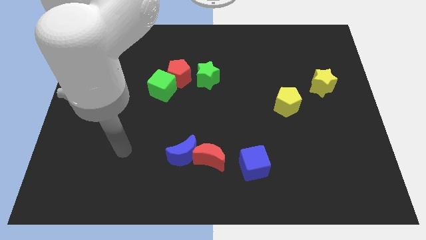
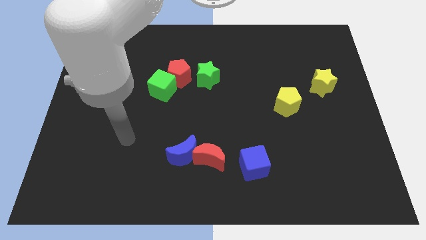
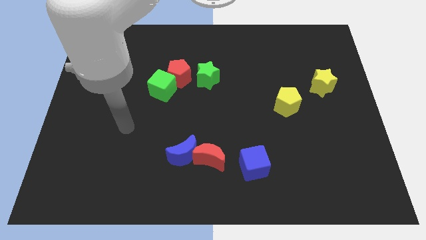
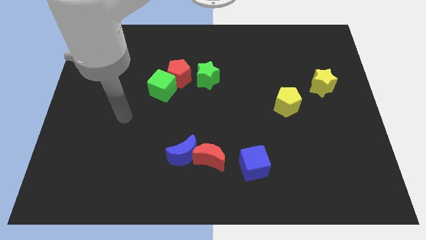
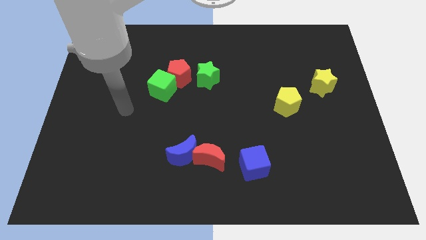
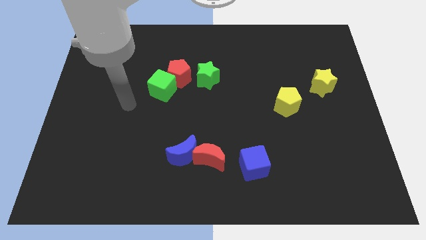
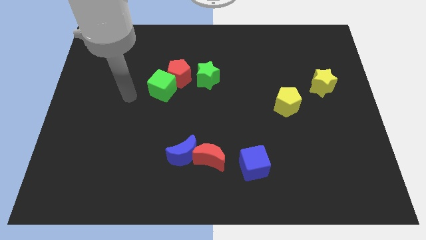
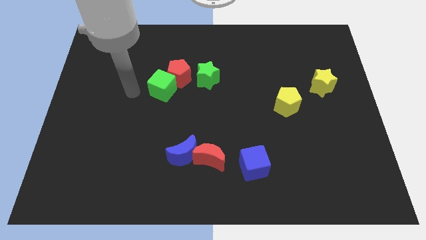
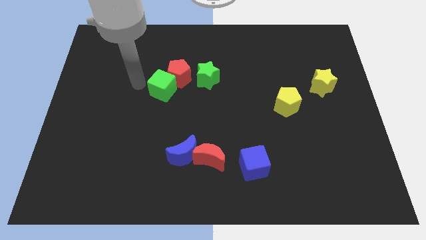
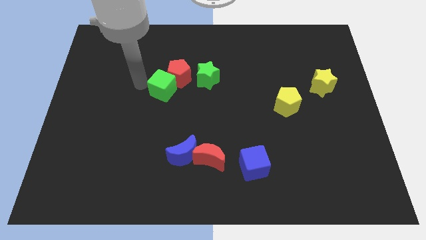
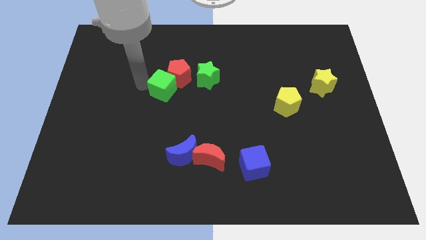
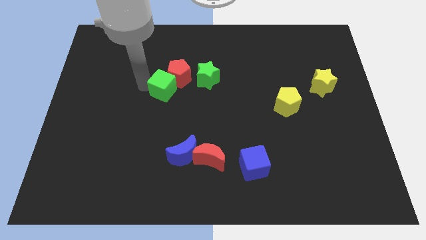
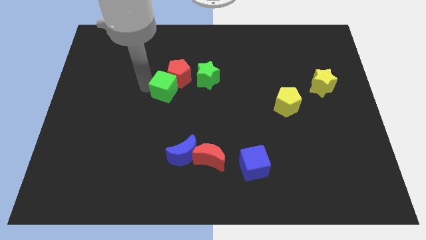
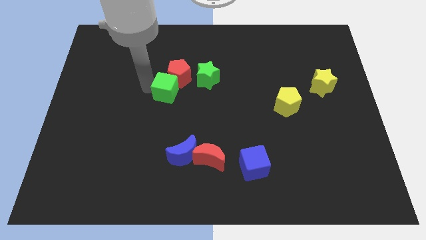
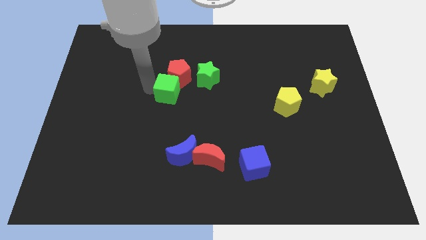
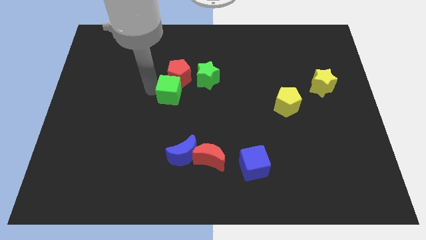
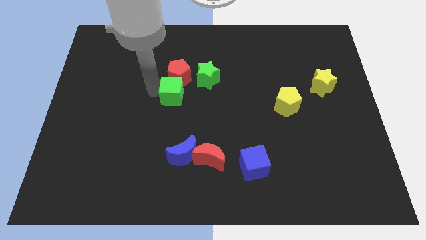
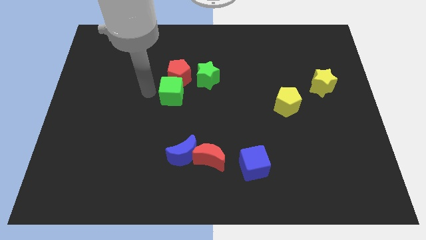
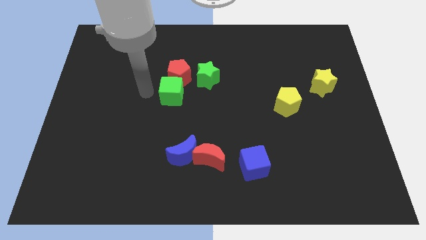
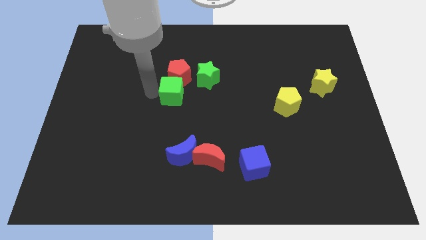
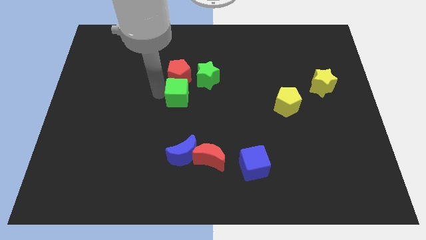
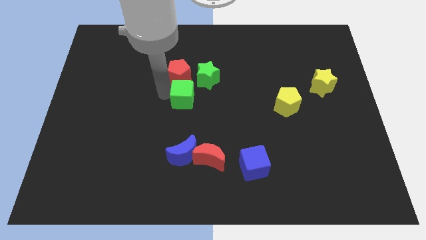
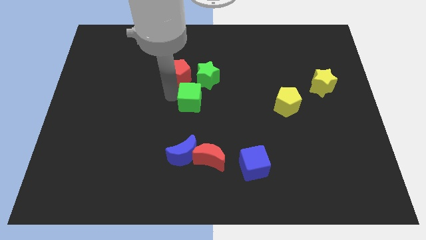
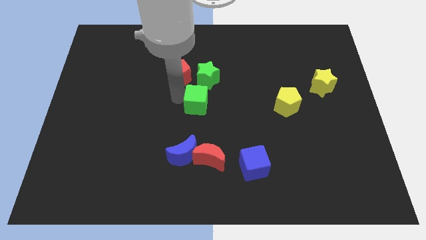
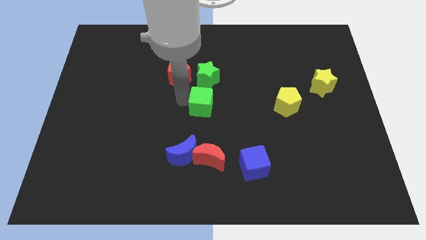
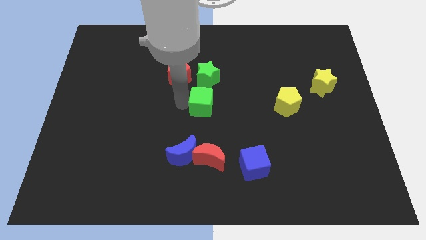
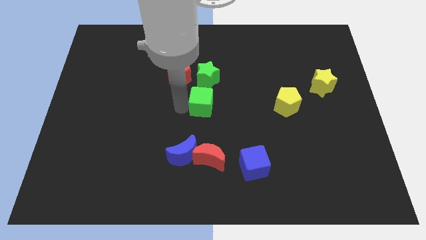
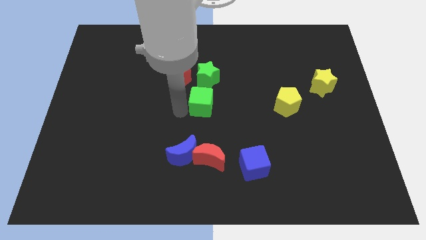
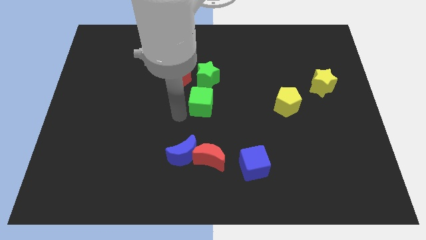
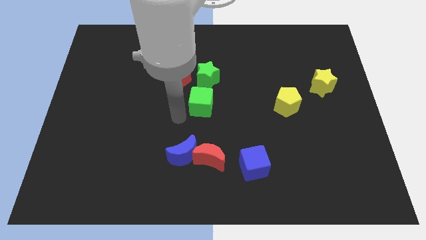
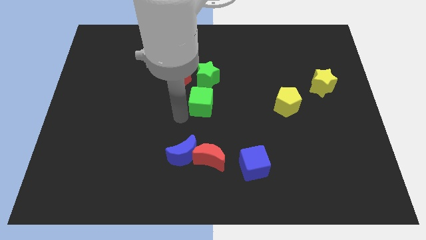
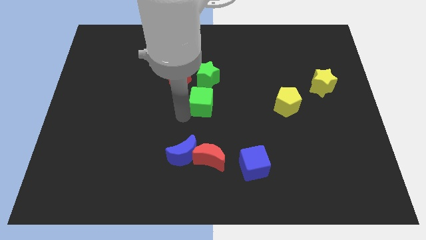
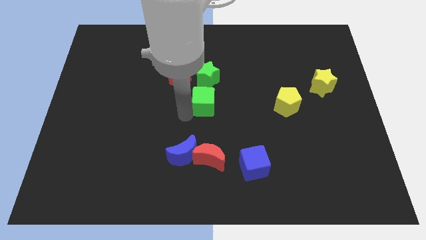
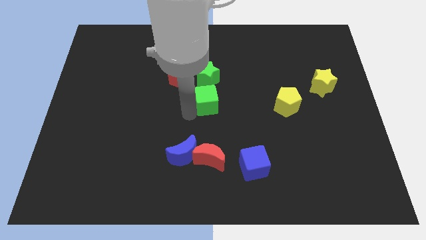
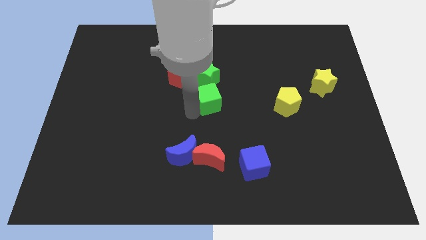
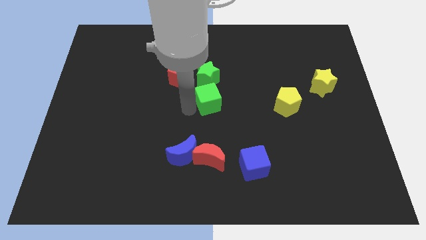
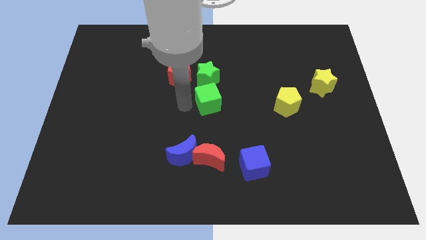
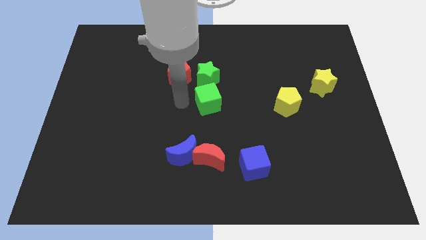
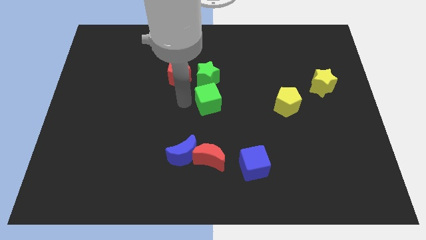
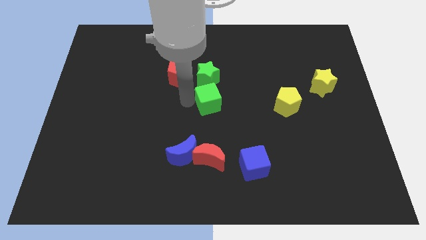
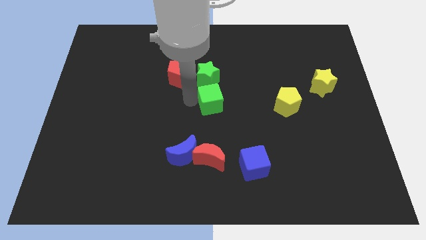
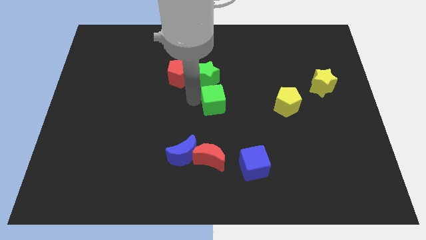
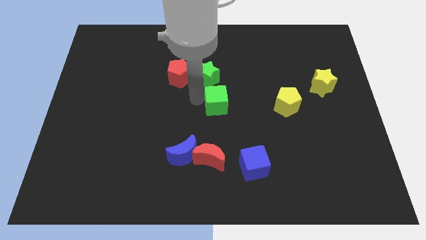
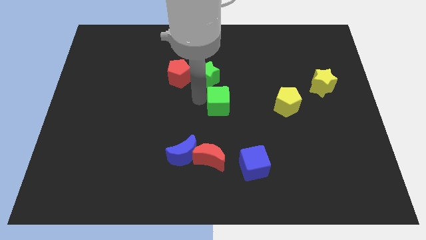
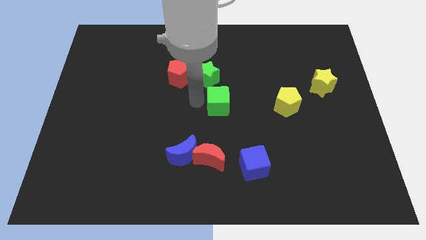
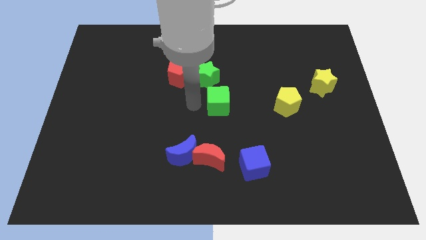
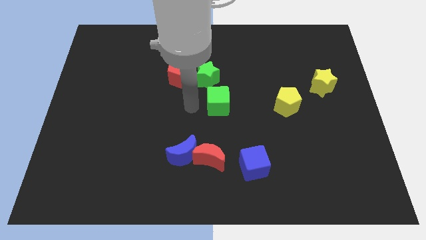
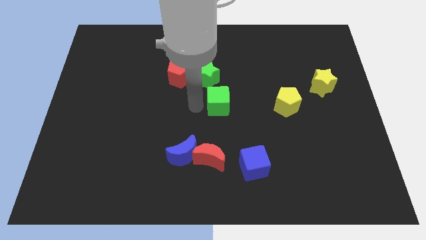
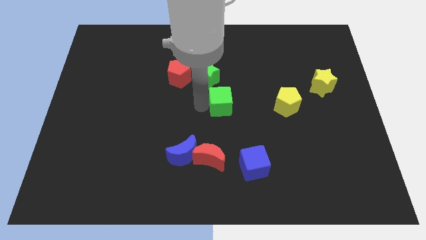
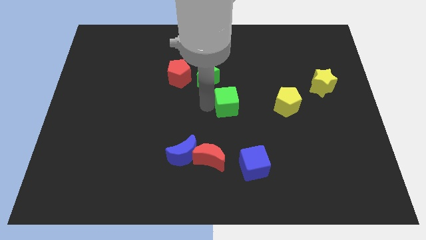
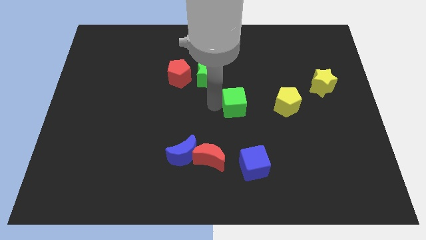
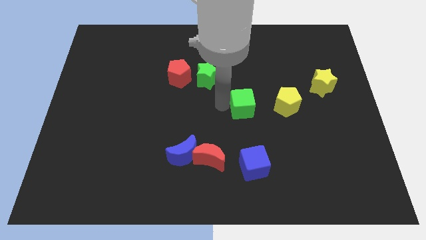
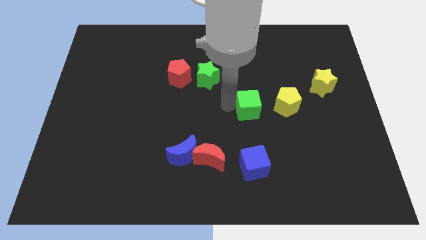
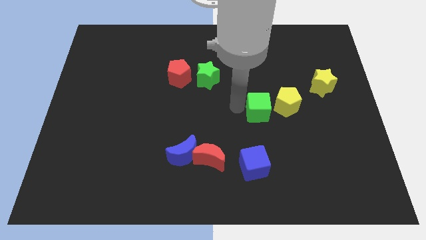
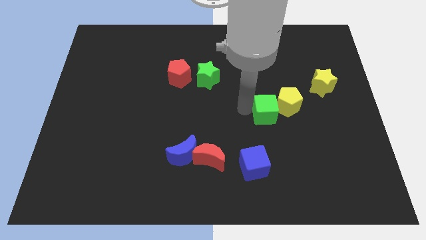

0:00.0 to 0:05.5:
put the green cube close to the yellow pentagon

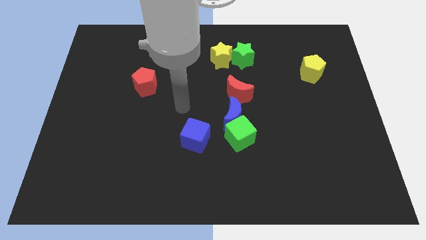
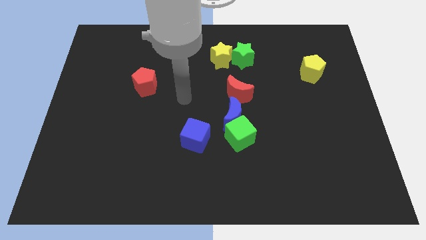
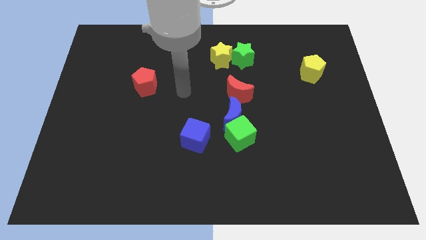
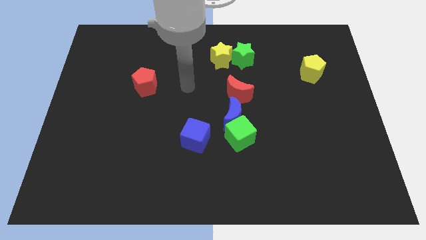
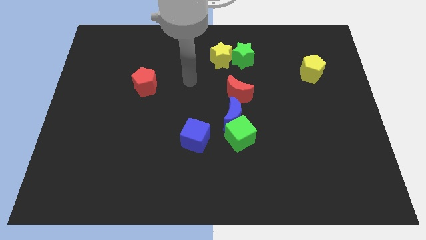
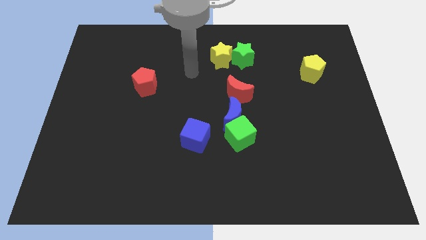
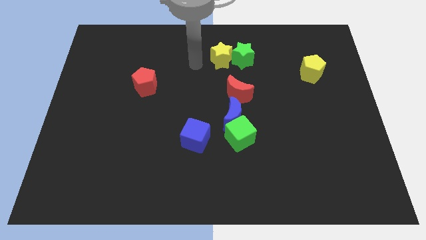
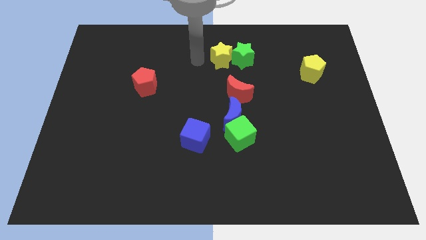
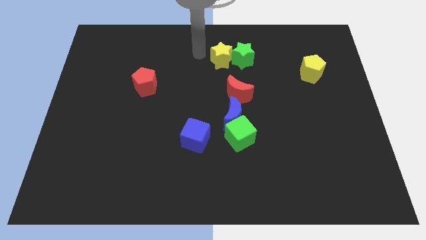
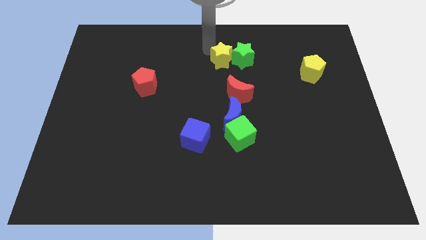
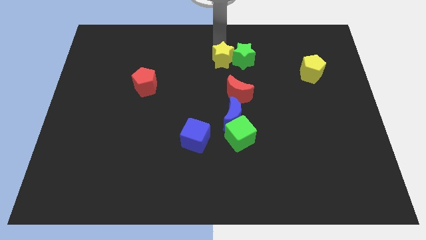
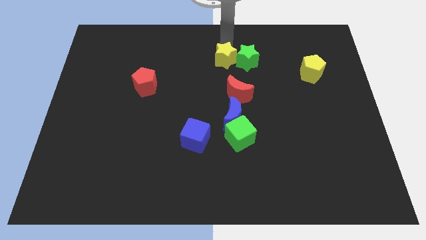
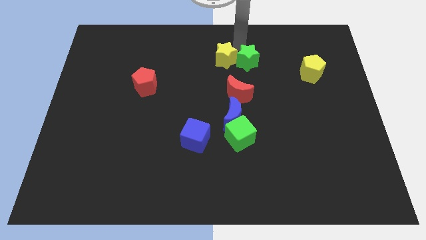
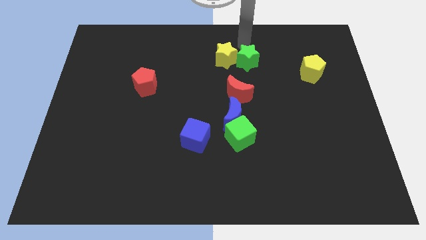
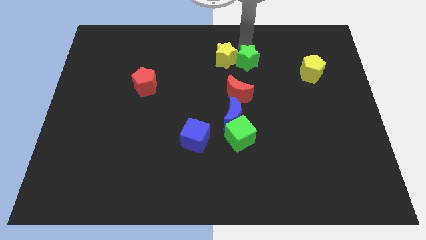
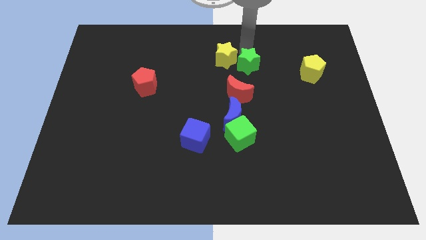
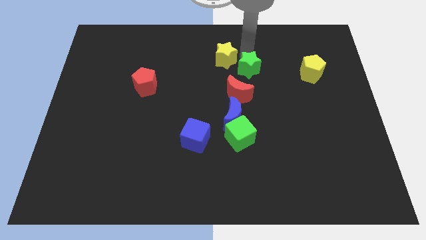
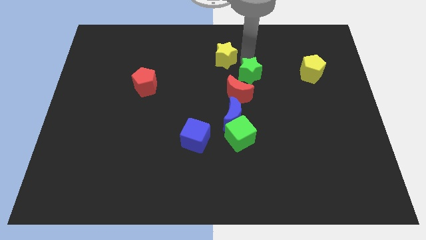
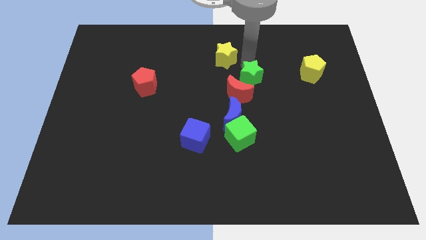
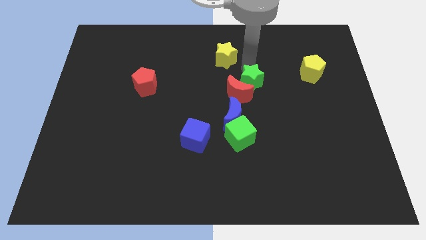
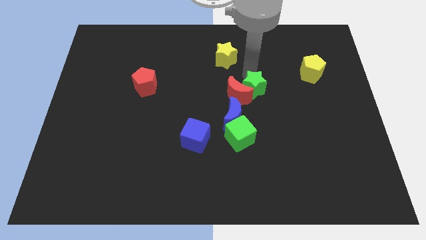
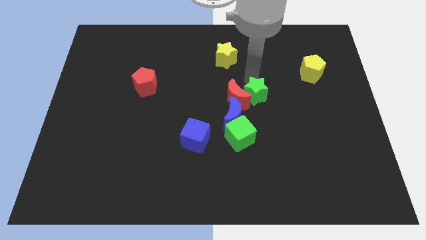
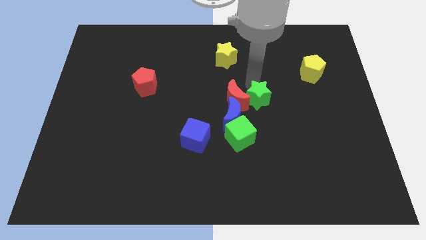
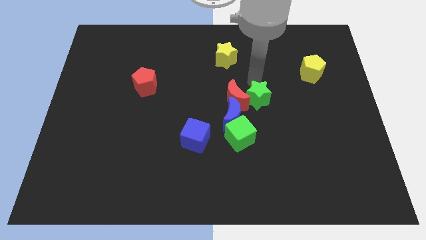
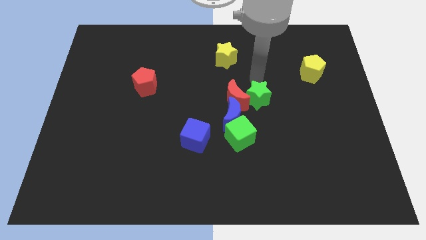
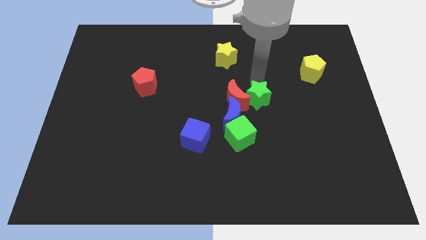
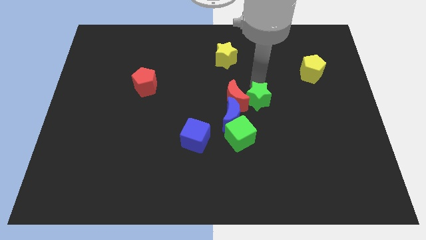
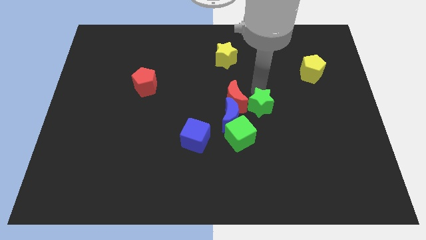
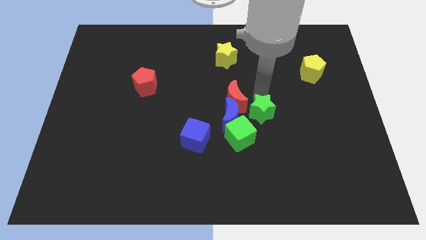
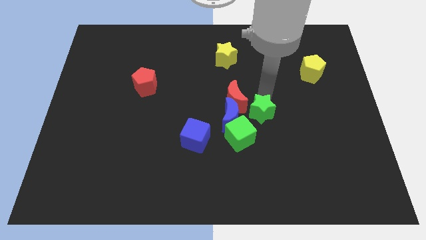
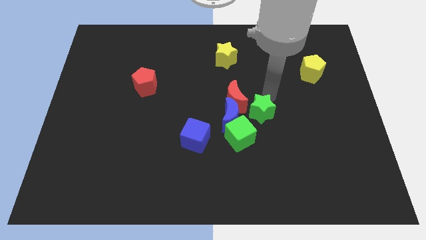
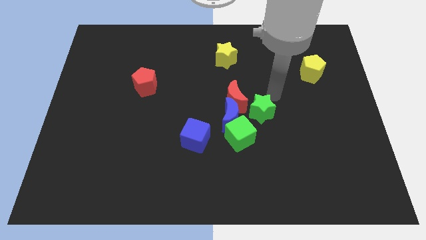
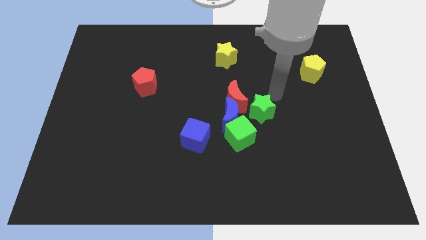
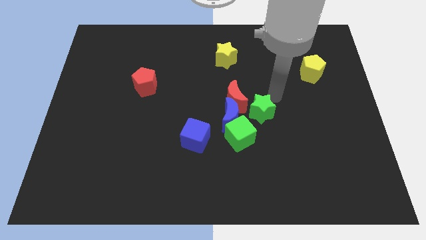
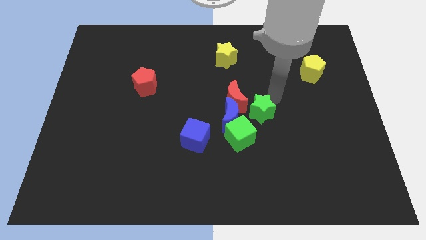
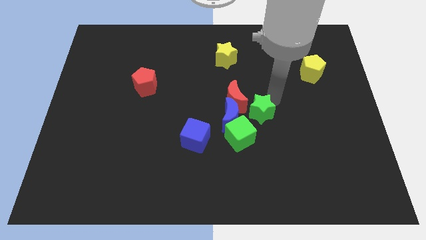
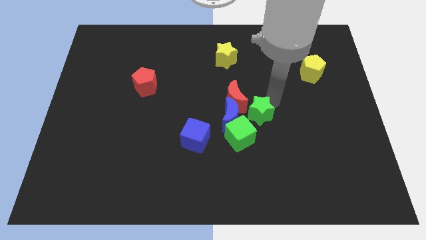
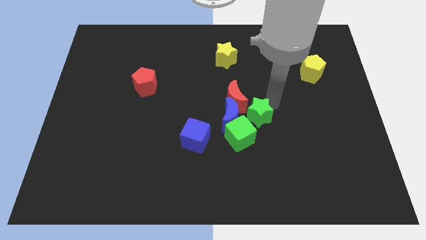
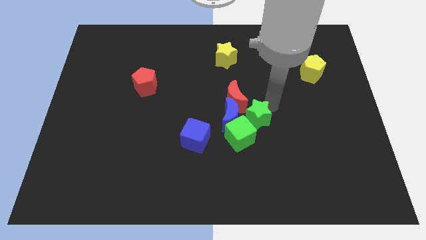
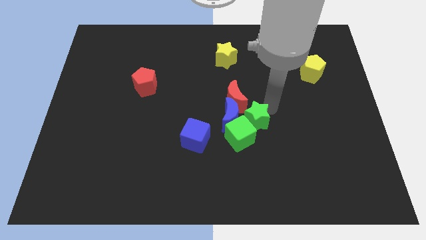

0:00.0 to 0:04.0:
push the green star towards the green cube
